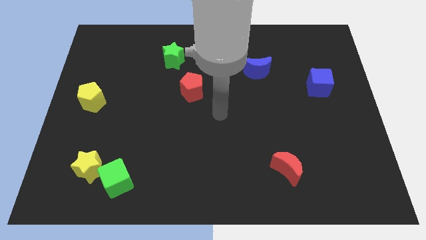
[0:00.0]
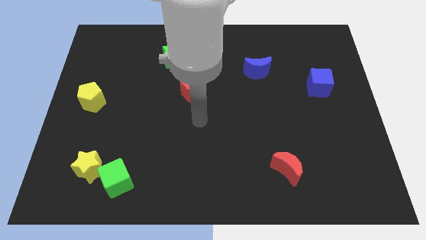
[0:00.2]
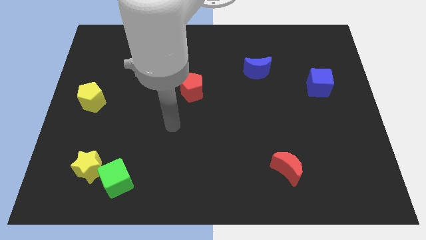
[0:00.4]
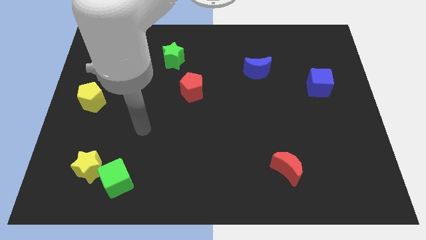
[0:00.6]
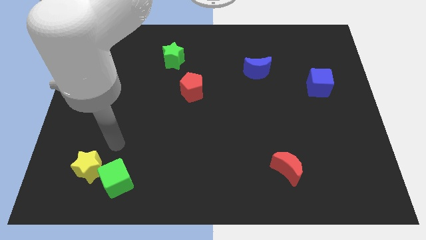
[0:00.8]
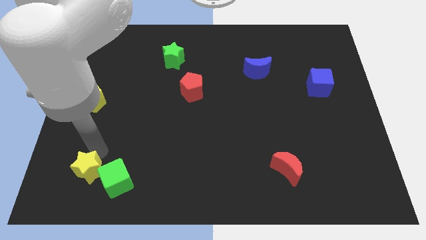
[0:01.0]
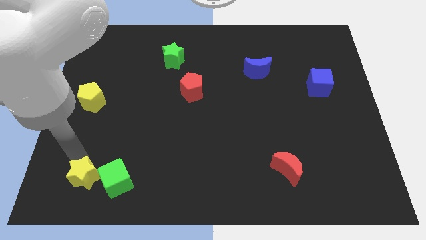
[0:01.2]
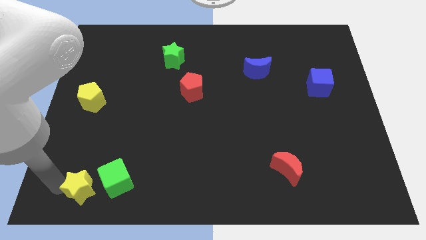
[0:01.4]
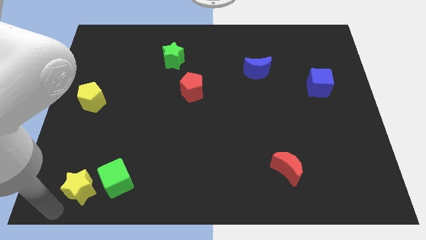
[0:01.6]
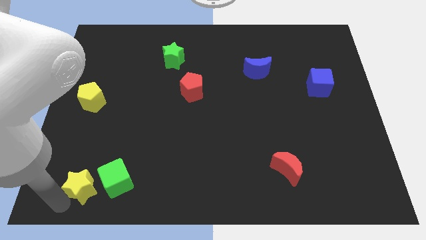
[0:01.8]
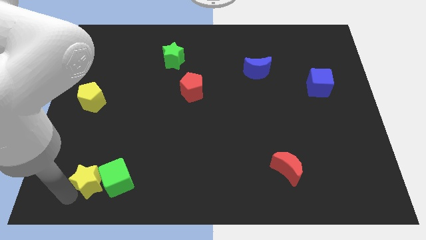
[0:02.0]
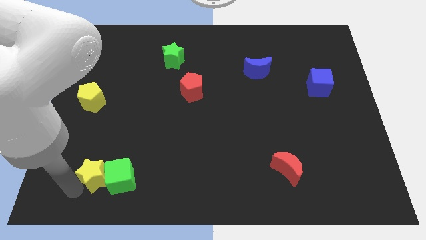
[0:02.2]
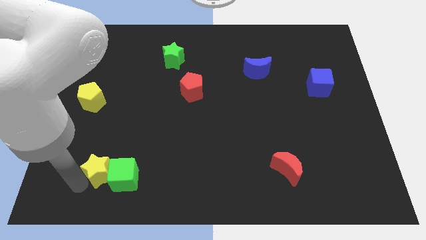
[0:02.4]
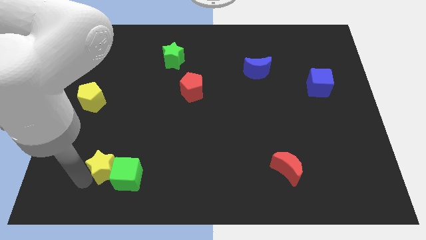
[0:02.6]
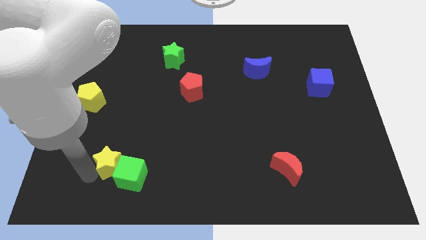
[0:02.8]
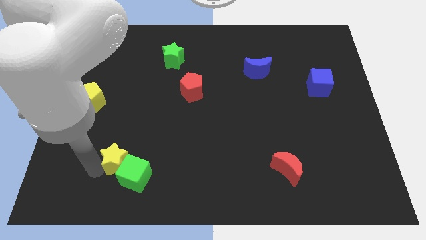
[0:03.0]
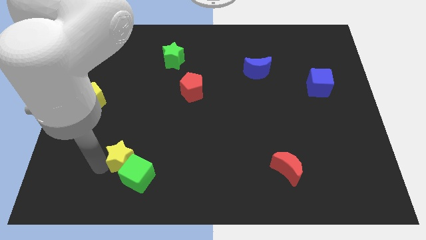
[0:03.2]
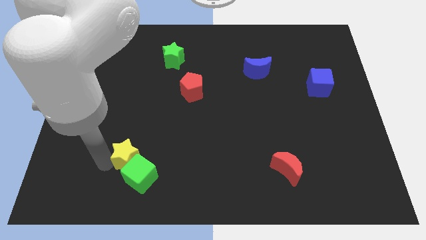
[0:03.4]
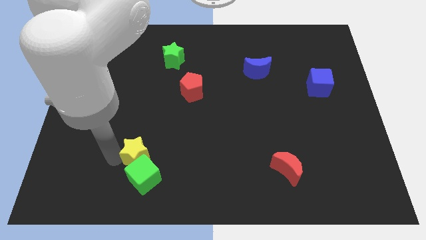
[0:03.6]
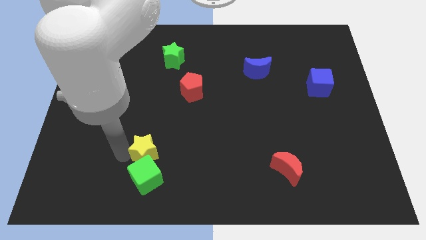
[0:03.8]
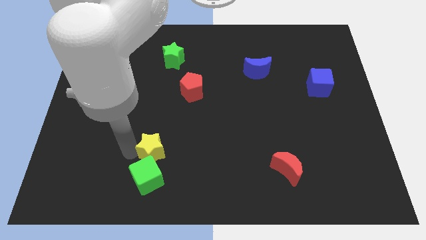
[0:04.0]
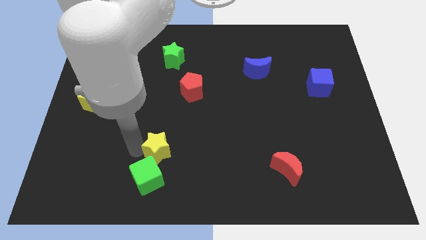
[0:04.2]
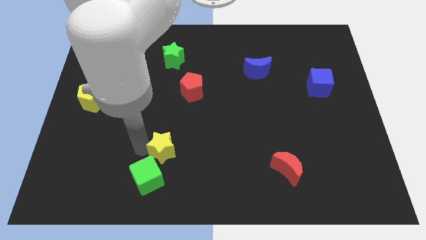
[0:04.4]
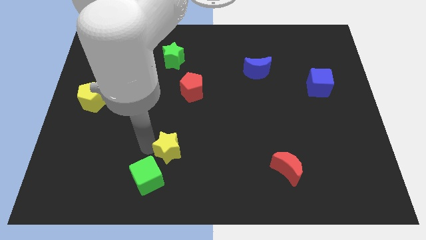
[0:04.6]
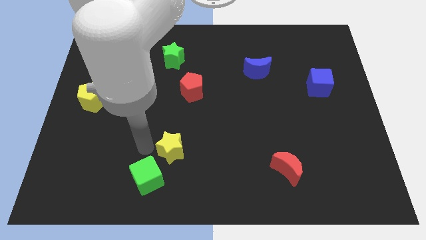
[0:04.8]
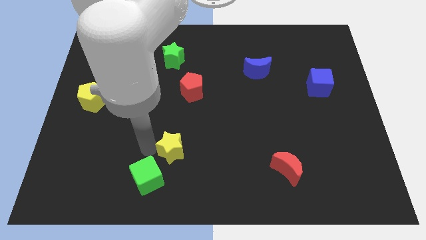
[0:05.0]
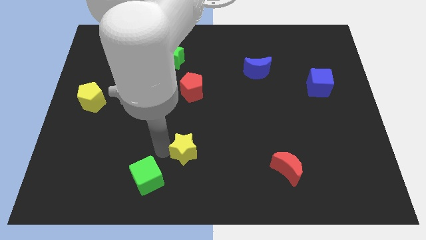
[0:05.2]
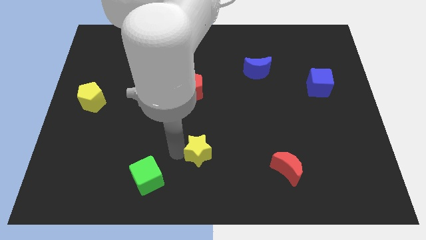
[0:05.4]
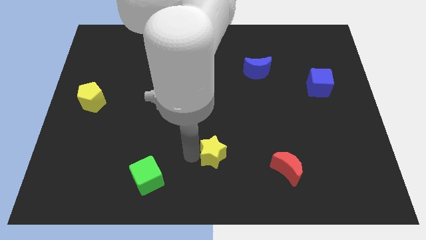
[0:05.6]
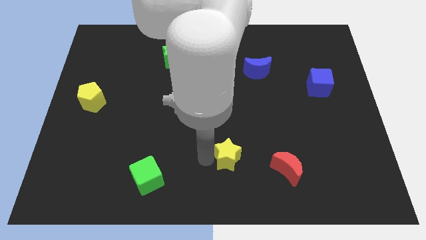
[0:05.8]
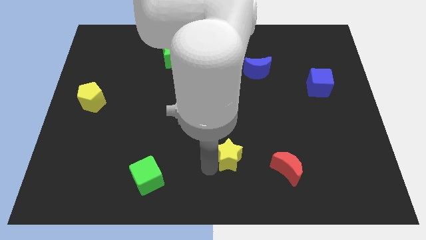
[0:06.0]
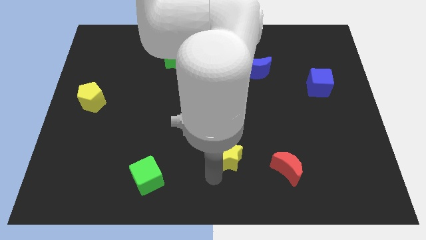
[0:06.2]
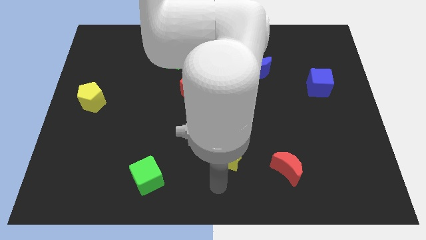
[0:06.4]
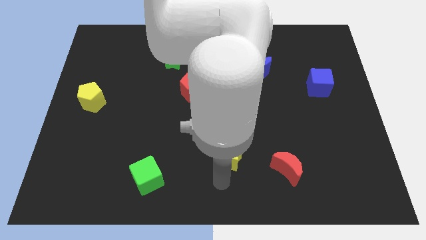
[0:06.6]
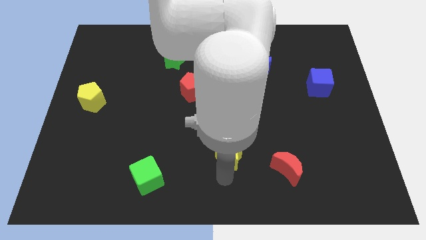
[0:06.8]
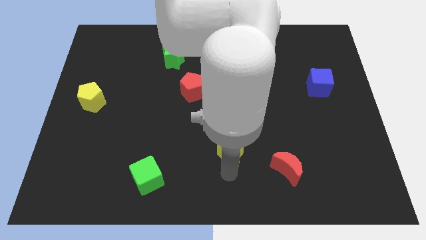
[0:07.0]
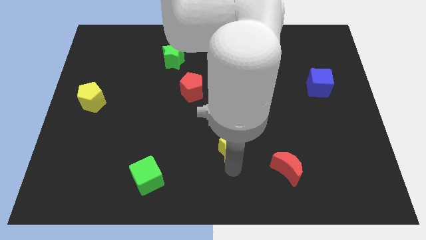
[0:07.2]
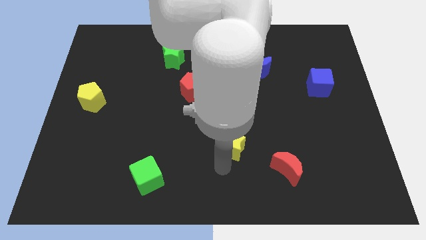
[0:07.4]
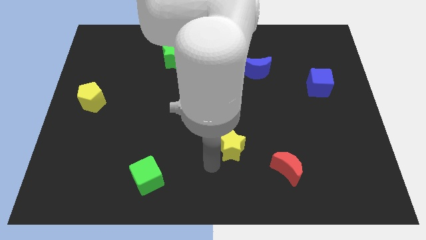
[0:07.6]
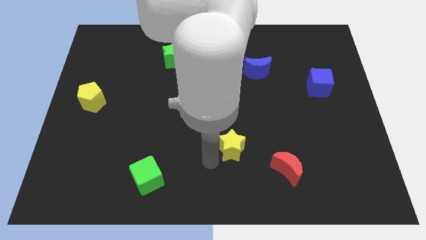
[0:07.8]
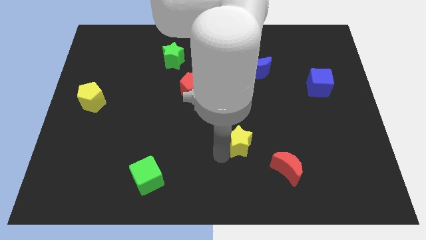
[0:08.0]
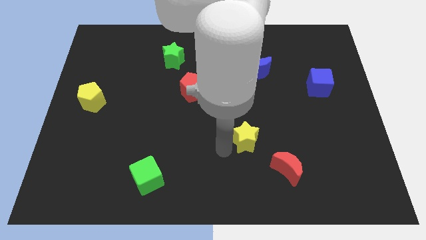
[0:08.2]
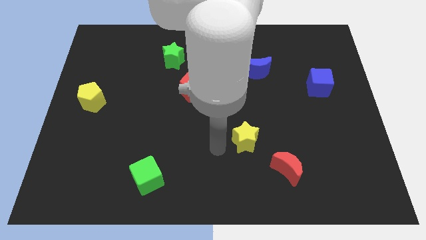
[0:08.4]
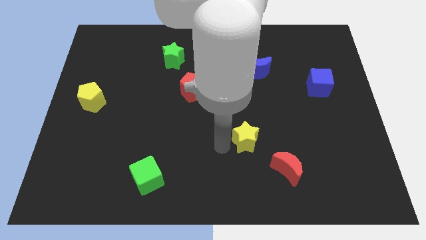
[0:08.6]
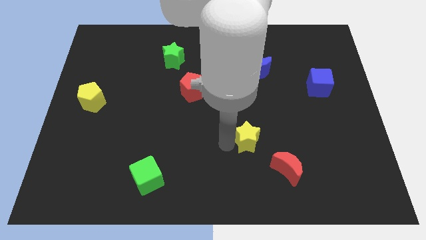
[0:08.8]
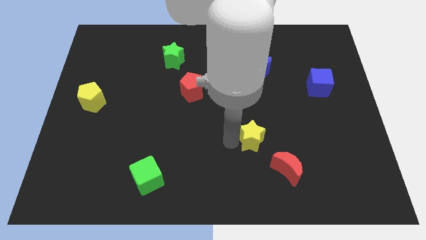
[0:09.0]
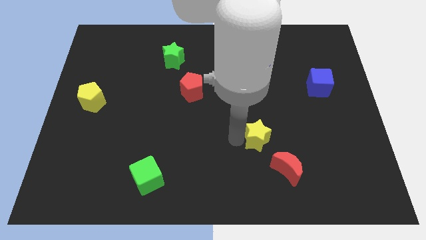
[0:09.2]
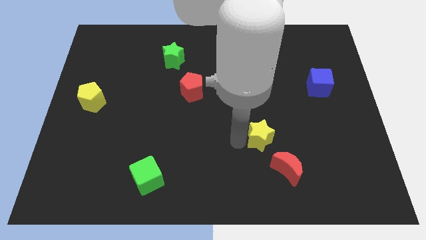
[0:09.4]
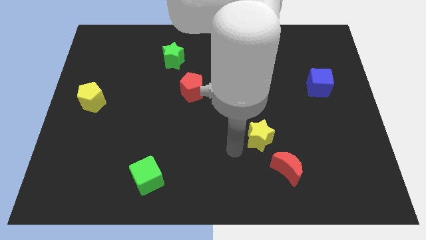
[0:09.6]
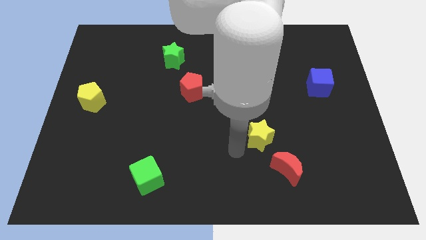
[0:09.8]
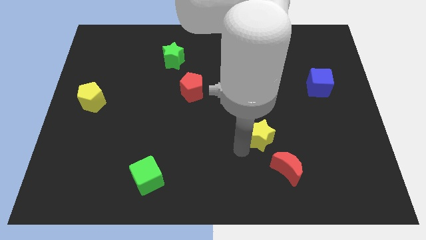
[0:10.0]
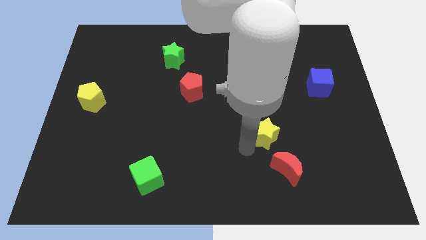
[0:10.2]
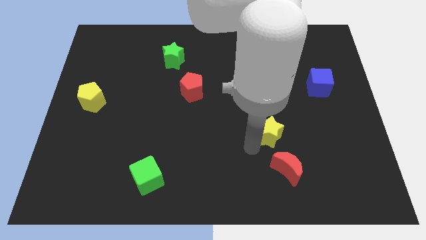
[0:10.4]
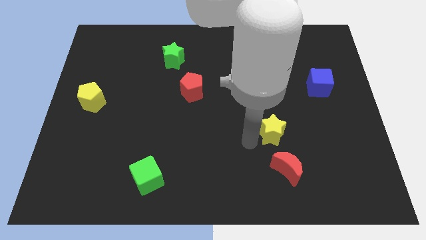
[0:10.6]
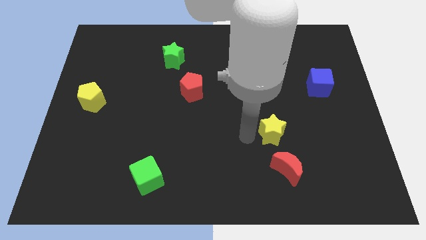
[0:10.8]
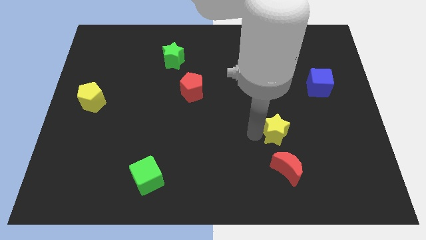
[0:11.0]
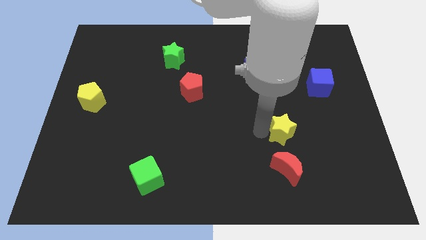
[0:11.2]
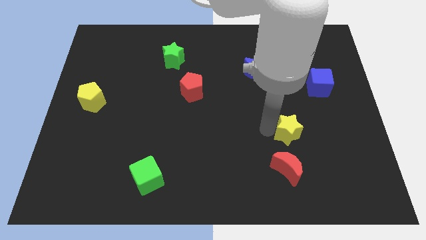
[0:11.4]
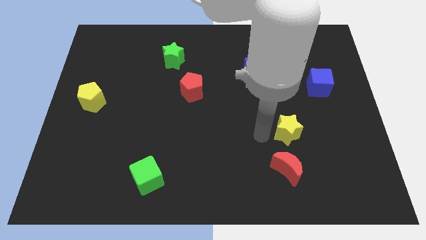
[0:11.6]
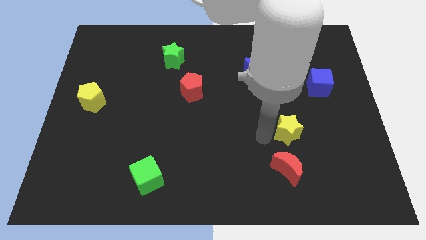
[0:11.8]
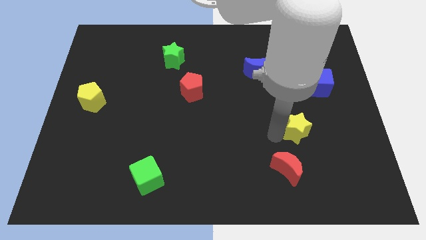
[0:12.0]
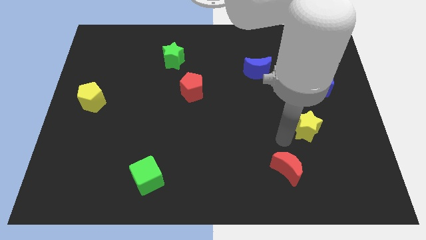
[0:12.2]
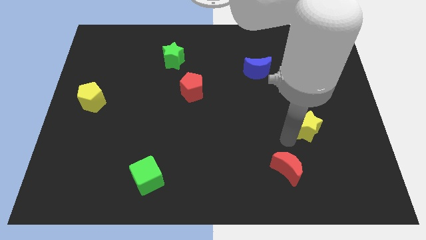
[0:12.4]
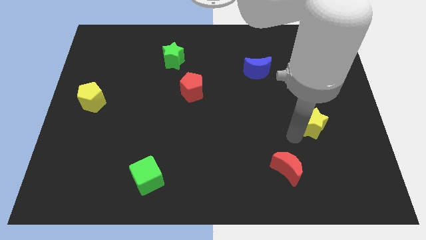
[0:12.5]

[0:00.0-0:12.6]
move the yellow star to the bottom of the blue cube

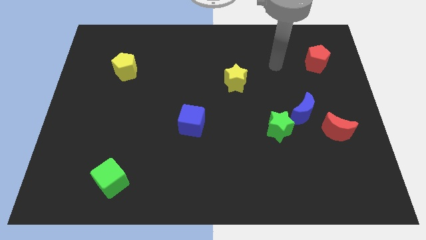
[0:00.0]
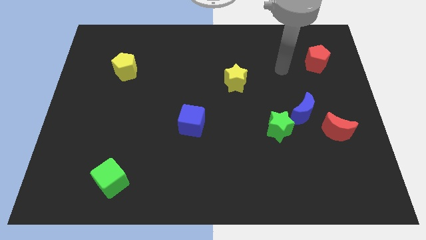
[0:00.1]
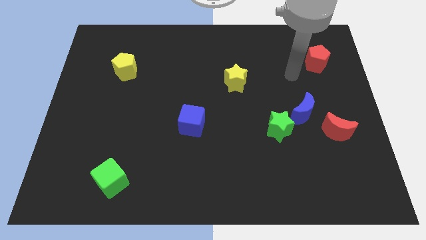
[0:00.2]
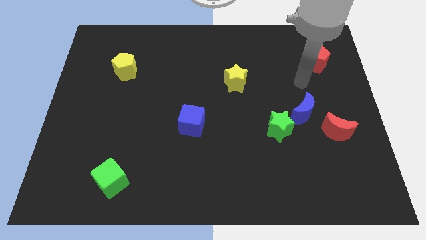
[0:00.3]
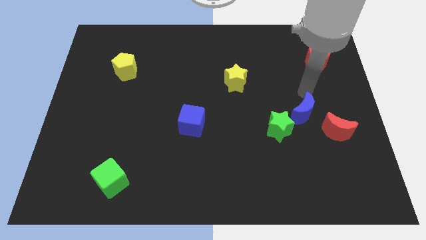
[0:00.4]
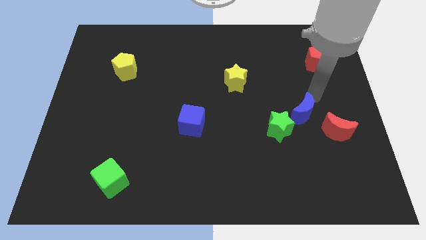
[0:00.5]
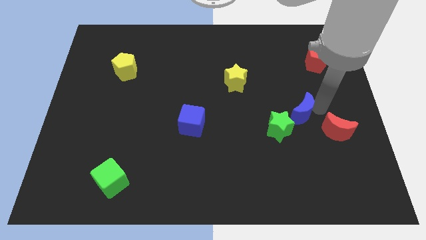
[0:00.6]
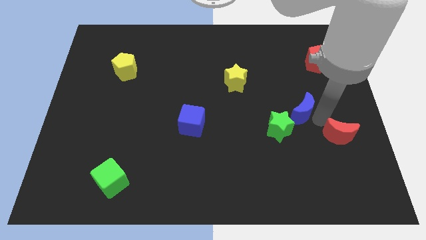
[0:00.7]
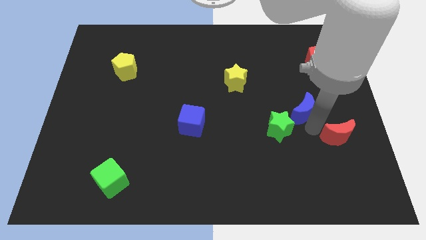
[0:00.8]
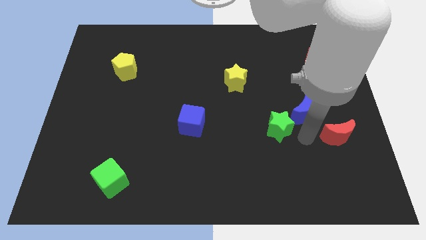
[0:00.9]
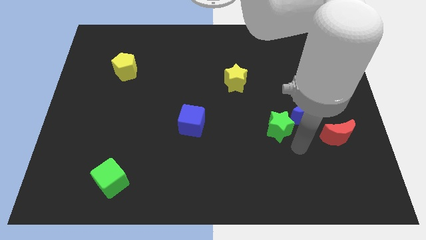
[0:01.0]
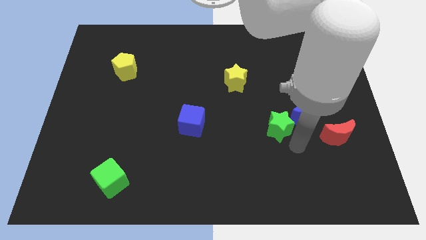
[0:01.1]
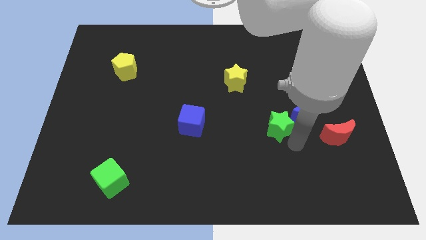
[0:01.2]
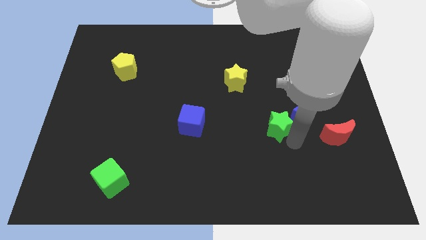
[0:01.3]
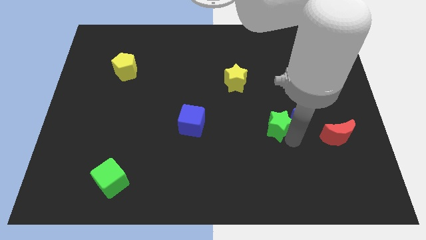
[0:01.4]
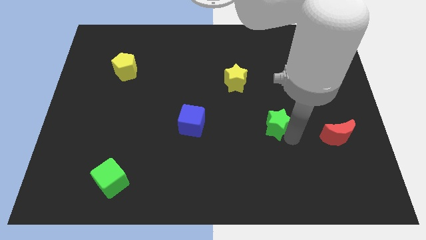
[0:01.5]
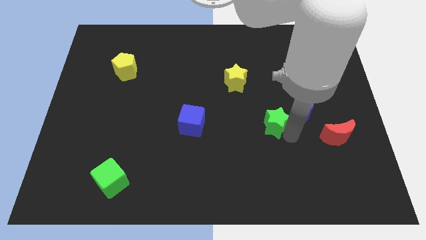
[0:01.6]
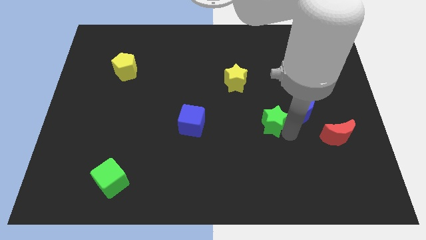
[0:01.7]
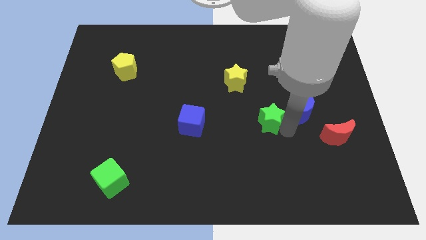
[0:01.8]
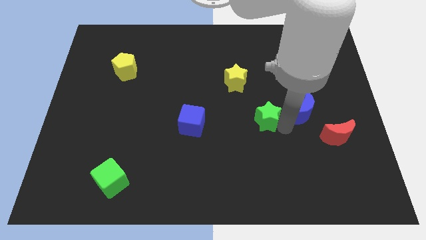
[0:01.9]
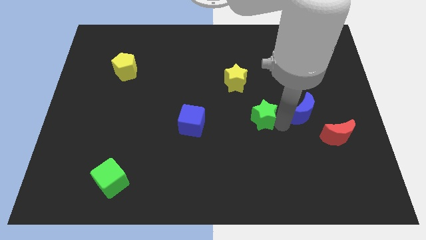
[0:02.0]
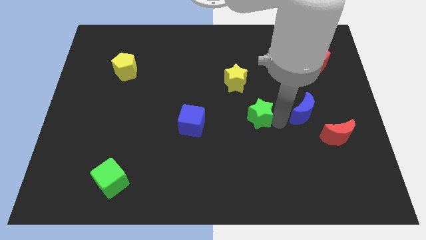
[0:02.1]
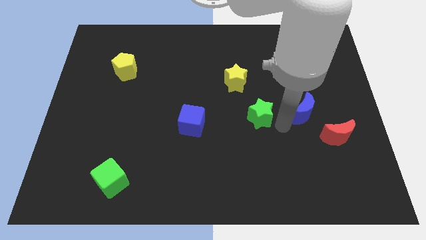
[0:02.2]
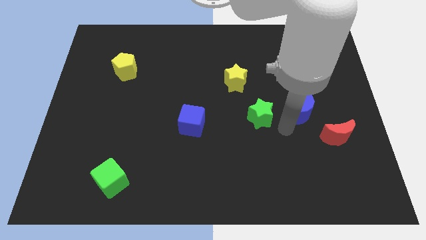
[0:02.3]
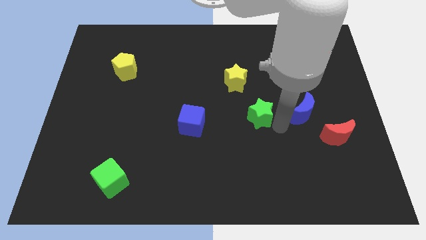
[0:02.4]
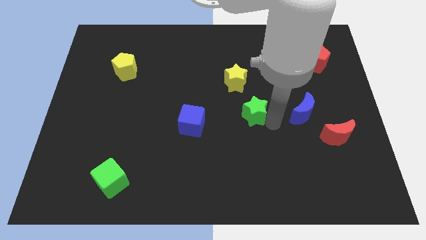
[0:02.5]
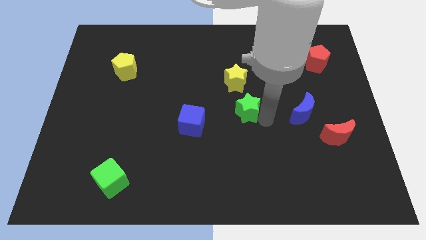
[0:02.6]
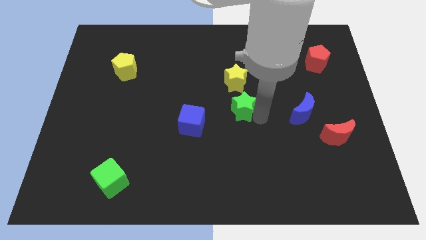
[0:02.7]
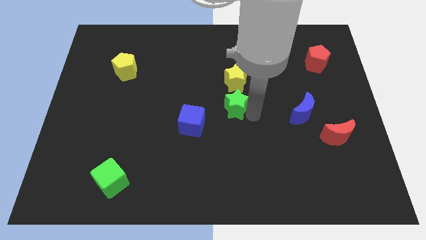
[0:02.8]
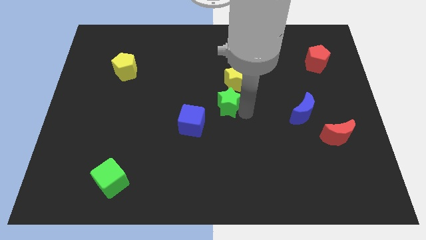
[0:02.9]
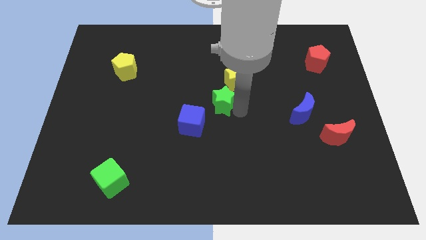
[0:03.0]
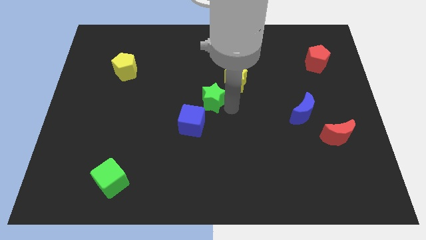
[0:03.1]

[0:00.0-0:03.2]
move the green star to the top of the blue cube
